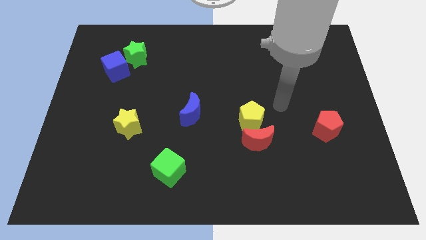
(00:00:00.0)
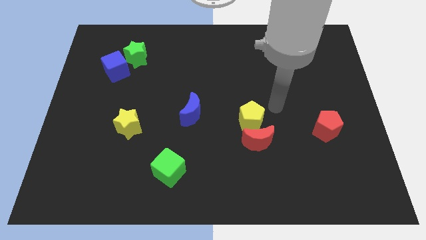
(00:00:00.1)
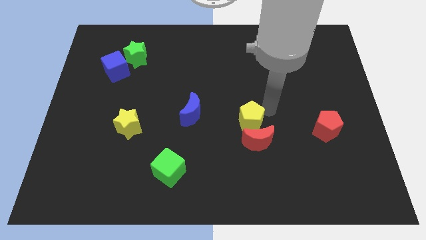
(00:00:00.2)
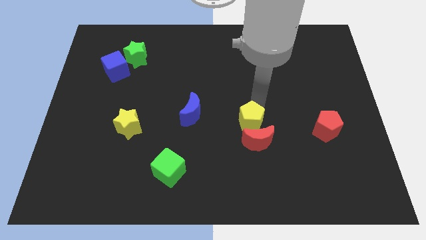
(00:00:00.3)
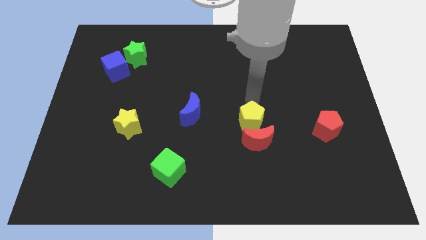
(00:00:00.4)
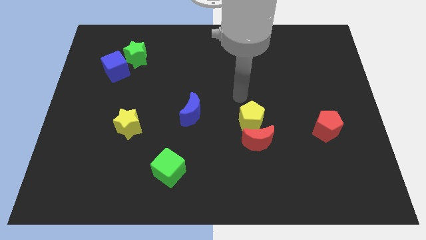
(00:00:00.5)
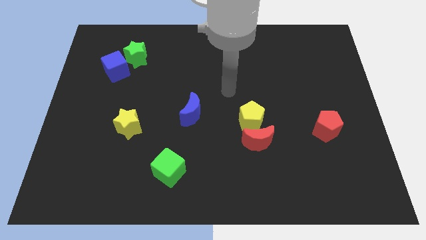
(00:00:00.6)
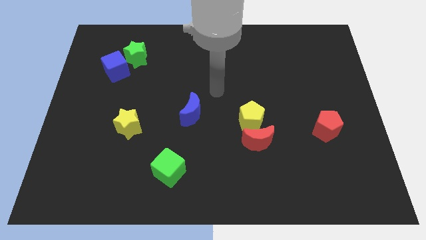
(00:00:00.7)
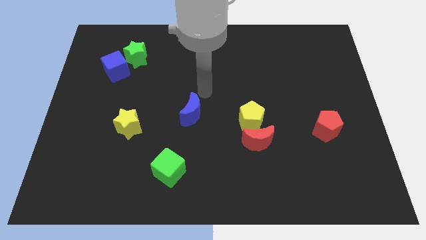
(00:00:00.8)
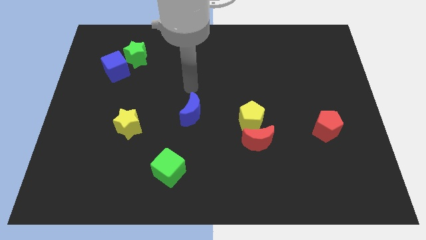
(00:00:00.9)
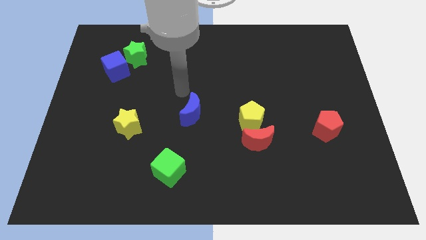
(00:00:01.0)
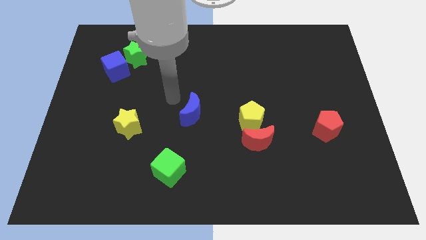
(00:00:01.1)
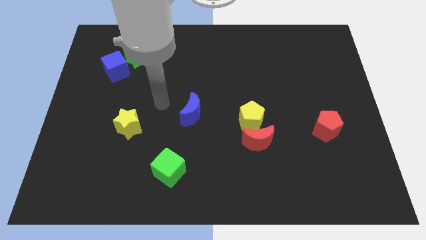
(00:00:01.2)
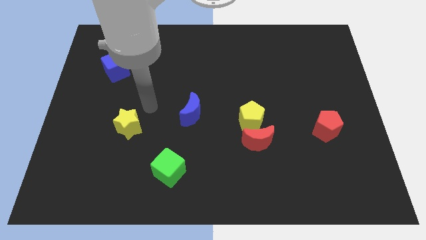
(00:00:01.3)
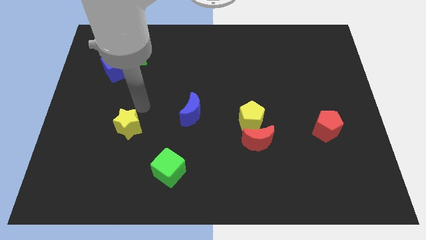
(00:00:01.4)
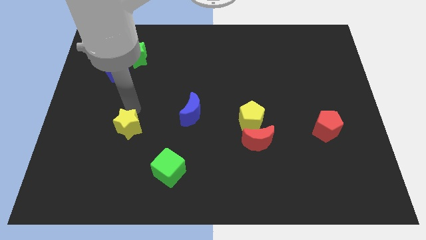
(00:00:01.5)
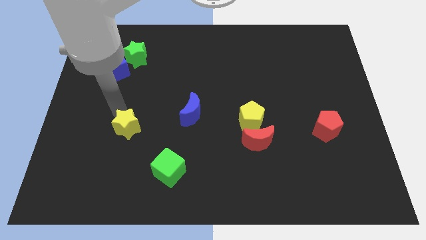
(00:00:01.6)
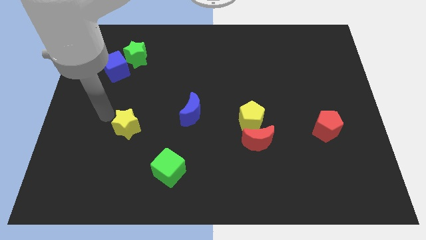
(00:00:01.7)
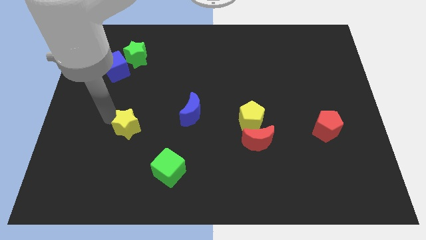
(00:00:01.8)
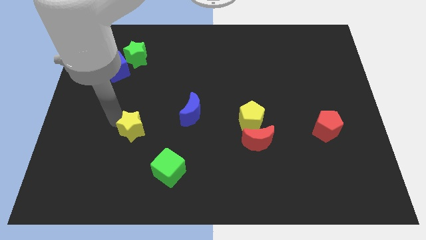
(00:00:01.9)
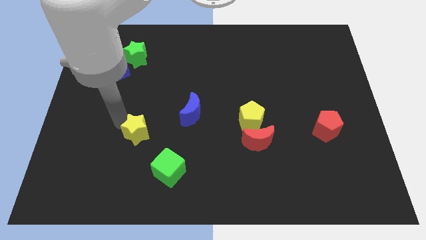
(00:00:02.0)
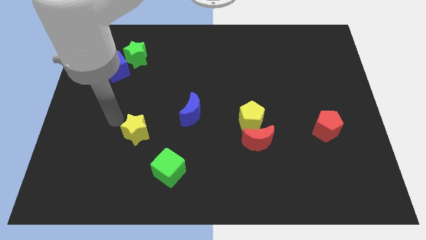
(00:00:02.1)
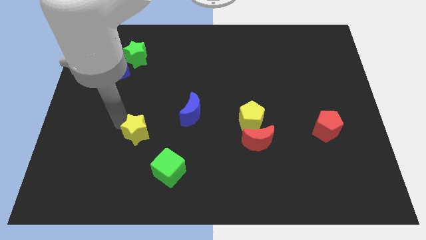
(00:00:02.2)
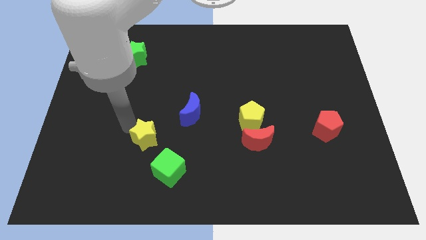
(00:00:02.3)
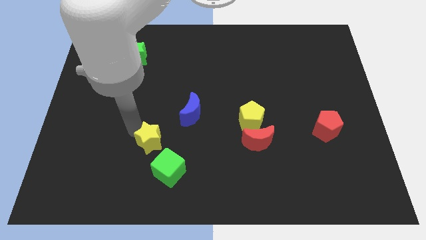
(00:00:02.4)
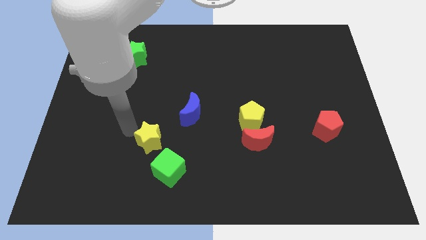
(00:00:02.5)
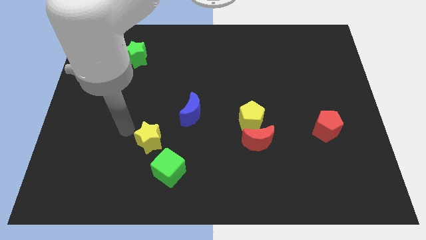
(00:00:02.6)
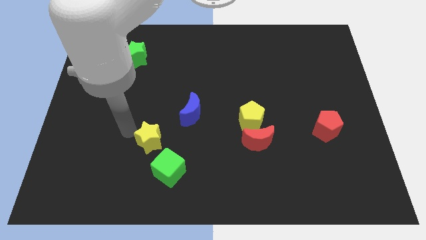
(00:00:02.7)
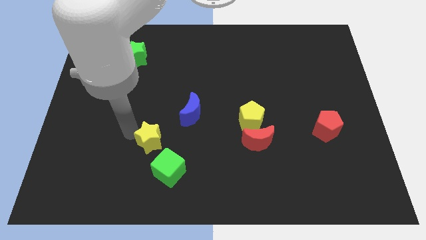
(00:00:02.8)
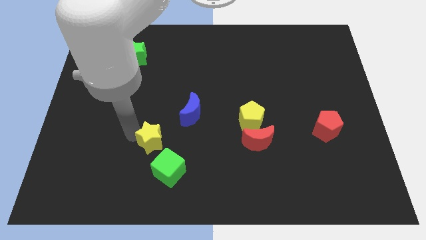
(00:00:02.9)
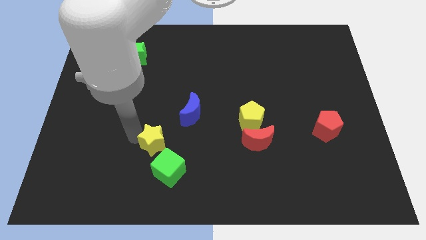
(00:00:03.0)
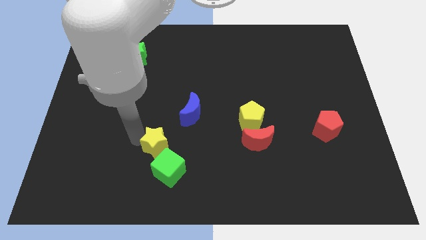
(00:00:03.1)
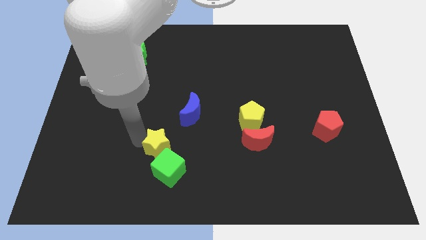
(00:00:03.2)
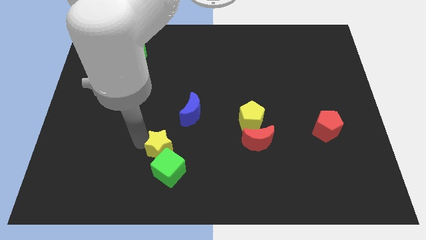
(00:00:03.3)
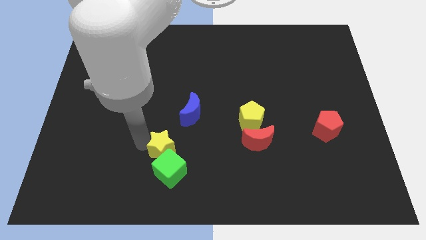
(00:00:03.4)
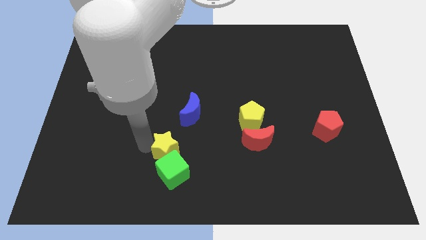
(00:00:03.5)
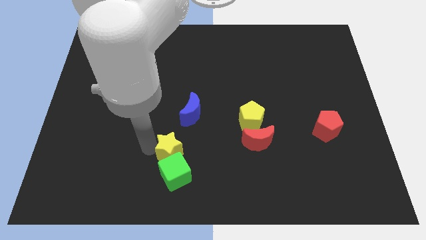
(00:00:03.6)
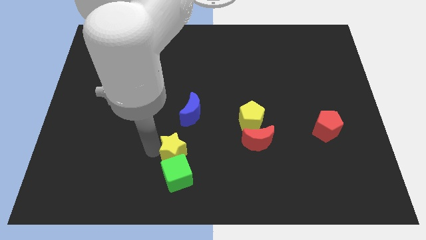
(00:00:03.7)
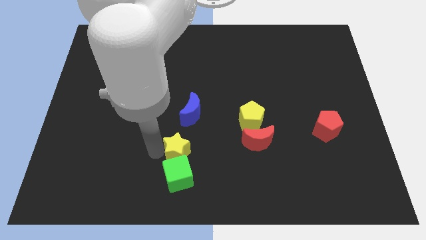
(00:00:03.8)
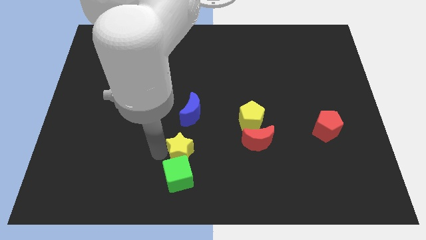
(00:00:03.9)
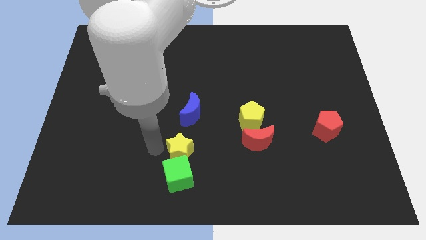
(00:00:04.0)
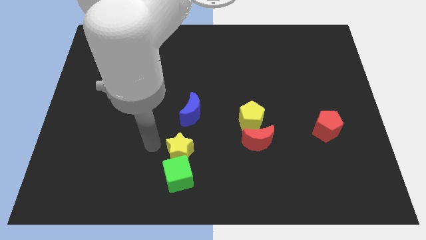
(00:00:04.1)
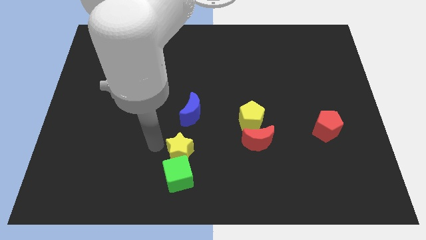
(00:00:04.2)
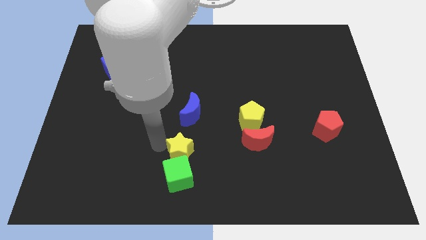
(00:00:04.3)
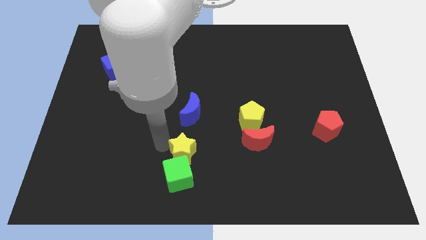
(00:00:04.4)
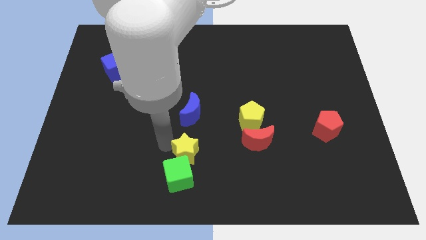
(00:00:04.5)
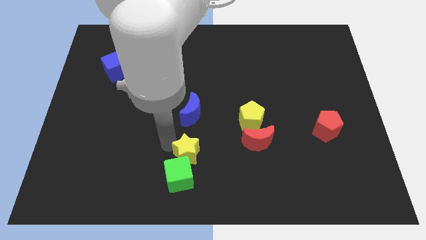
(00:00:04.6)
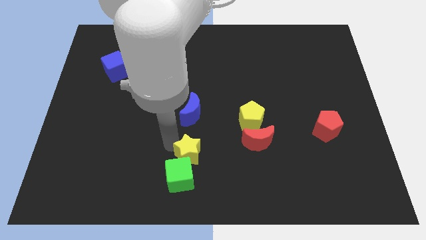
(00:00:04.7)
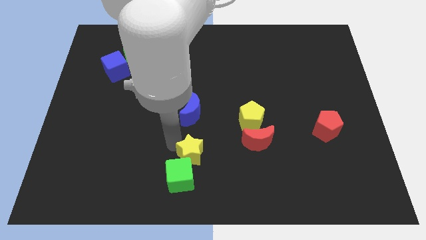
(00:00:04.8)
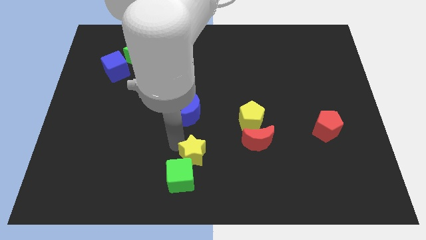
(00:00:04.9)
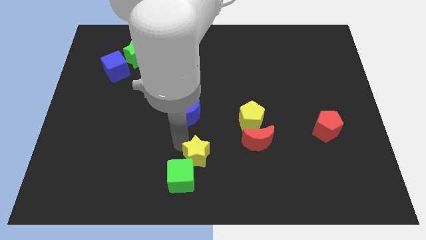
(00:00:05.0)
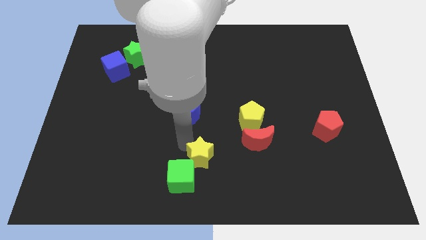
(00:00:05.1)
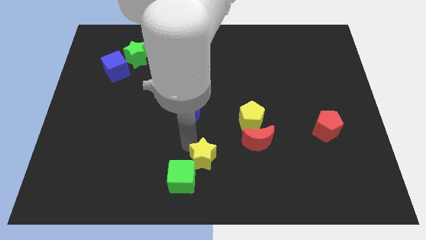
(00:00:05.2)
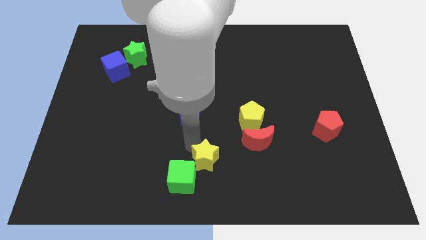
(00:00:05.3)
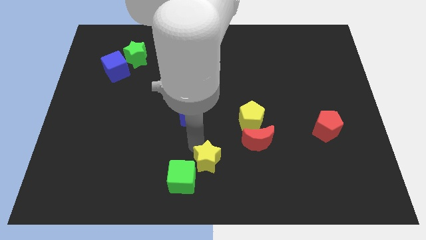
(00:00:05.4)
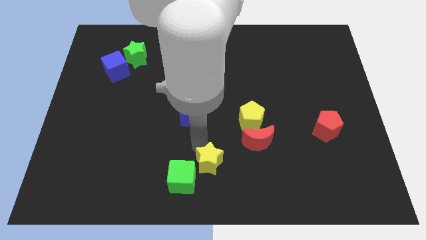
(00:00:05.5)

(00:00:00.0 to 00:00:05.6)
move the yellow star diagonally down and to the left of the red moon

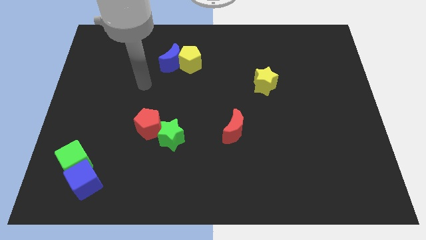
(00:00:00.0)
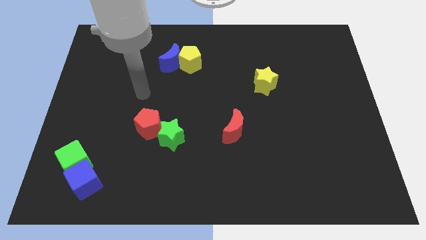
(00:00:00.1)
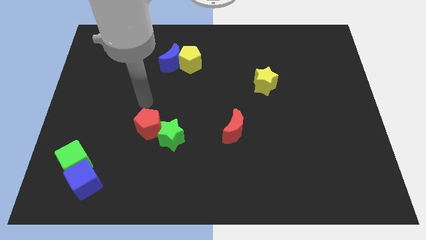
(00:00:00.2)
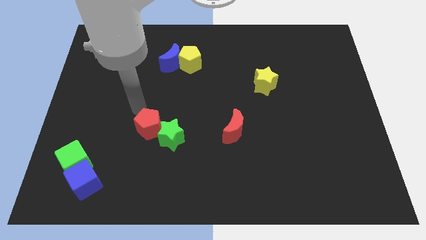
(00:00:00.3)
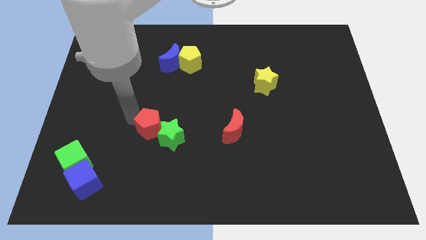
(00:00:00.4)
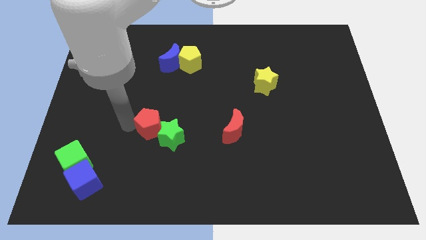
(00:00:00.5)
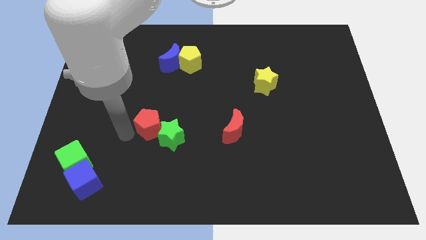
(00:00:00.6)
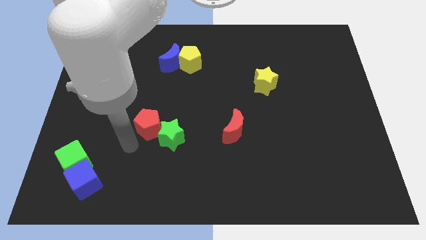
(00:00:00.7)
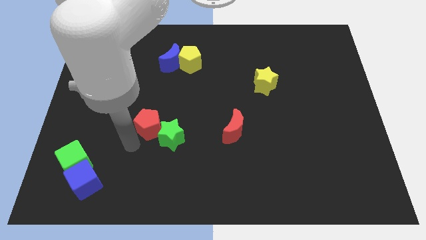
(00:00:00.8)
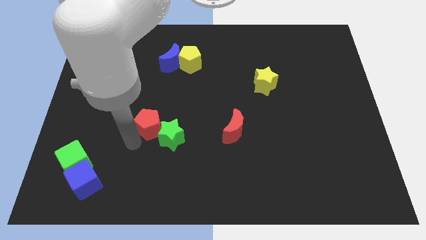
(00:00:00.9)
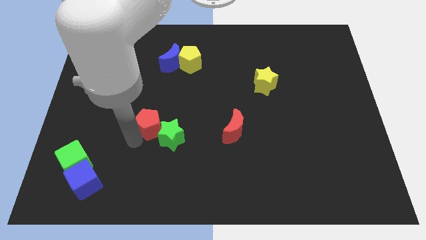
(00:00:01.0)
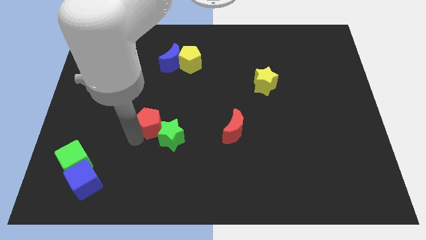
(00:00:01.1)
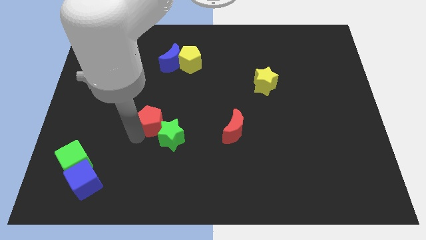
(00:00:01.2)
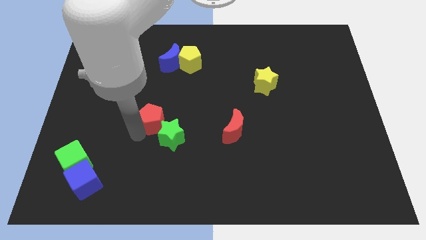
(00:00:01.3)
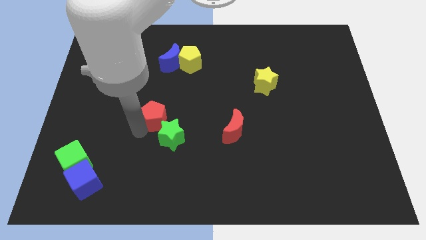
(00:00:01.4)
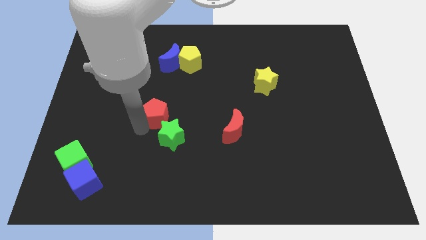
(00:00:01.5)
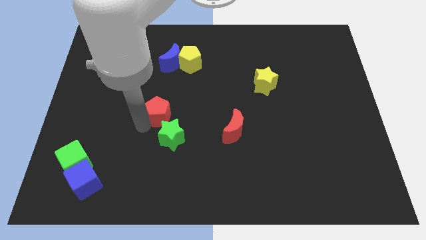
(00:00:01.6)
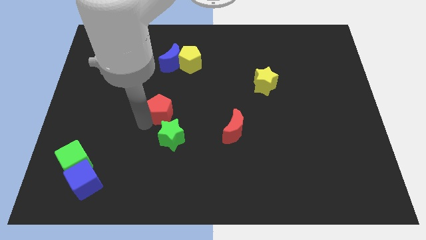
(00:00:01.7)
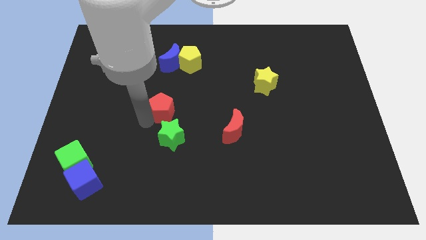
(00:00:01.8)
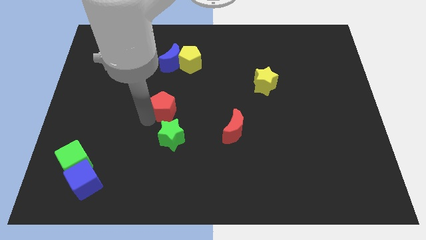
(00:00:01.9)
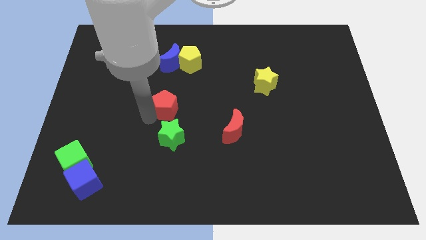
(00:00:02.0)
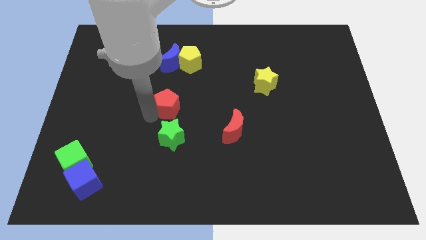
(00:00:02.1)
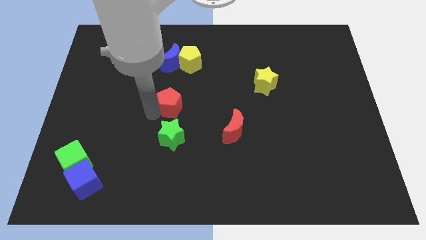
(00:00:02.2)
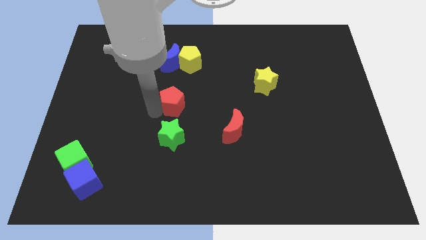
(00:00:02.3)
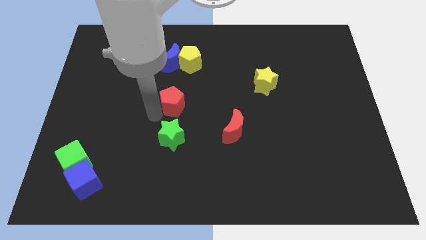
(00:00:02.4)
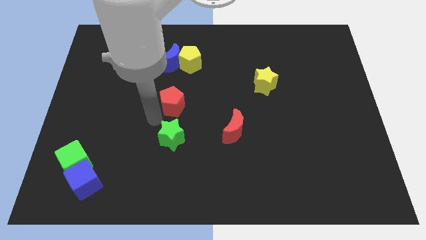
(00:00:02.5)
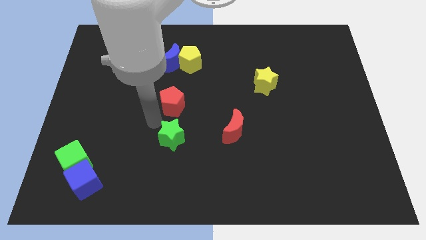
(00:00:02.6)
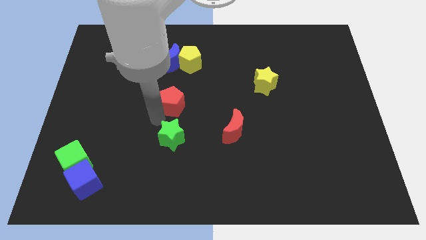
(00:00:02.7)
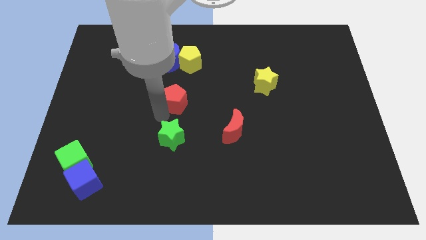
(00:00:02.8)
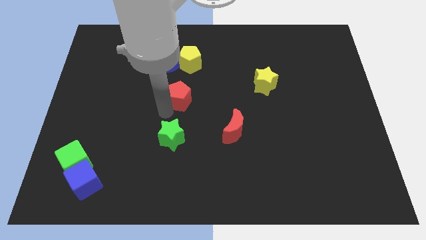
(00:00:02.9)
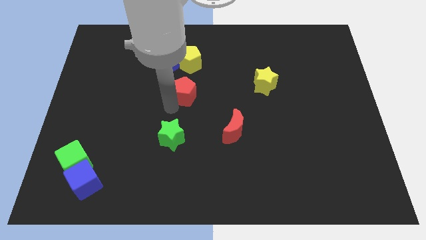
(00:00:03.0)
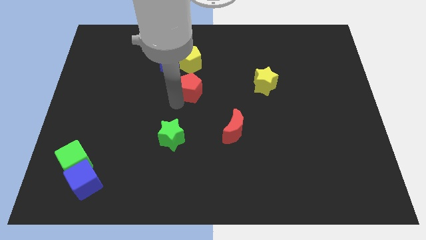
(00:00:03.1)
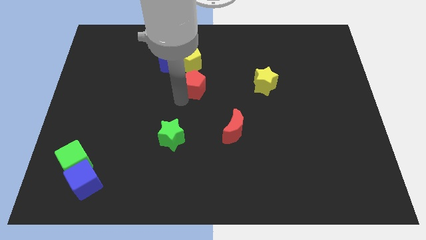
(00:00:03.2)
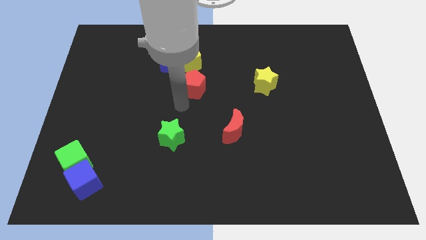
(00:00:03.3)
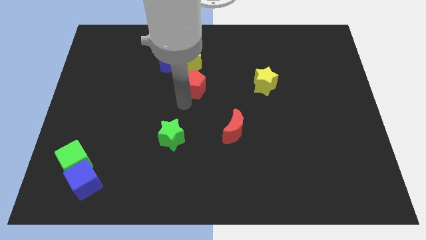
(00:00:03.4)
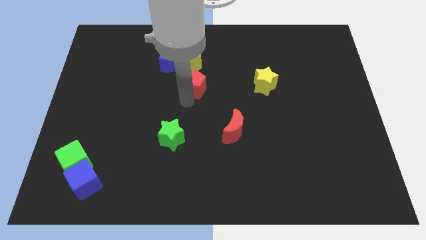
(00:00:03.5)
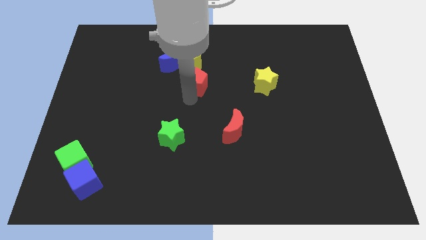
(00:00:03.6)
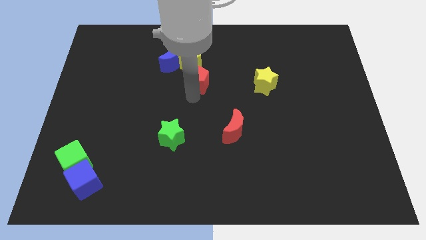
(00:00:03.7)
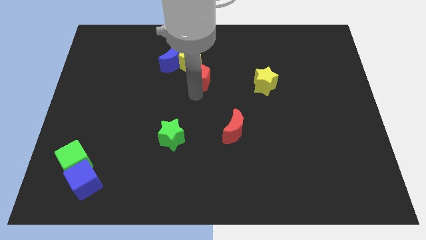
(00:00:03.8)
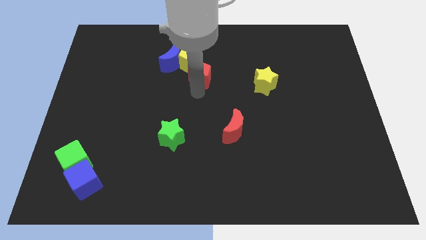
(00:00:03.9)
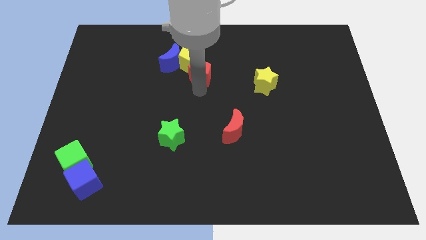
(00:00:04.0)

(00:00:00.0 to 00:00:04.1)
slide the red pentagon to the right side of the blue moon
